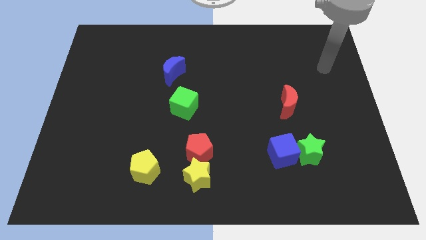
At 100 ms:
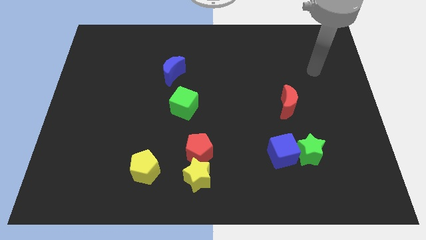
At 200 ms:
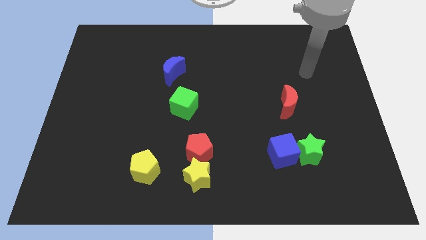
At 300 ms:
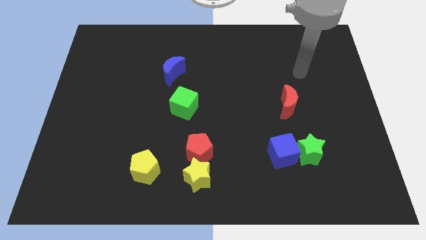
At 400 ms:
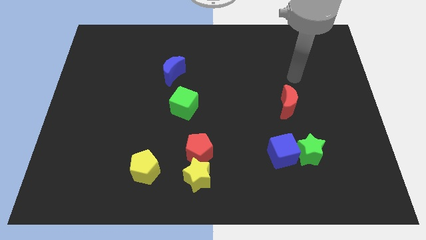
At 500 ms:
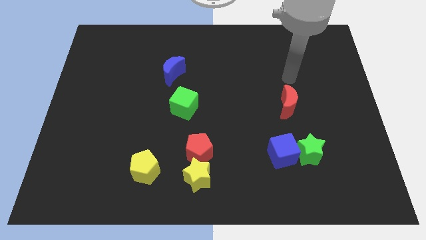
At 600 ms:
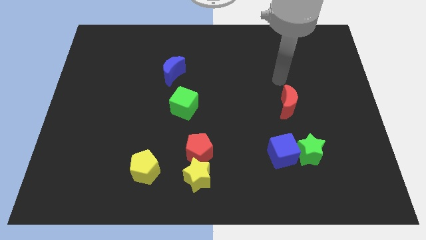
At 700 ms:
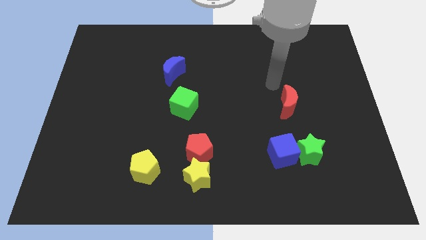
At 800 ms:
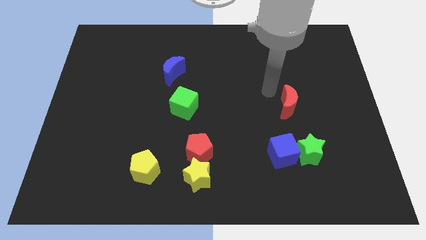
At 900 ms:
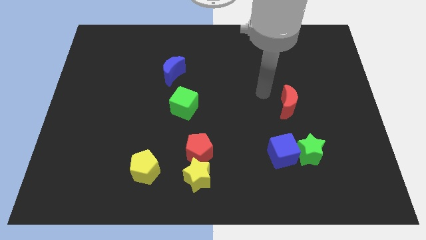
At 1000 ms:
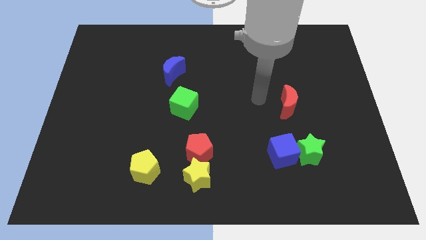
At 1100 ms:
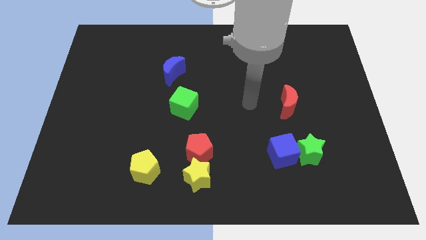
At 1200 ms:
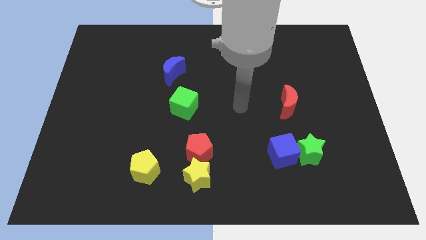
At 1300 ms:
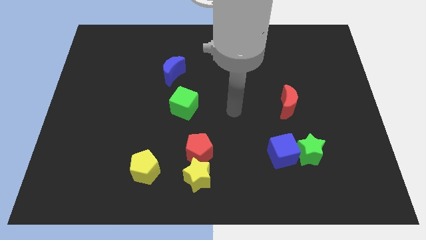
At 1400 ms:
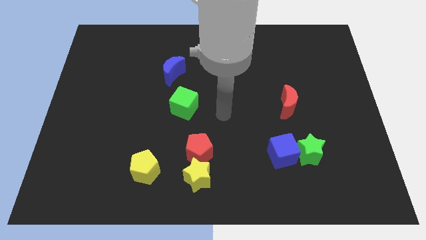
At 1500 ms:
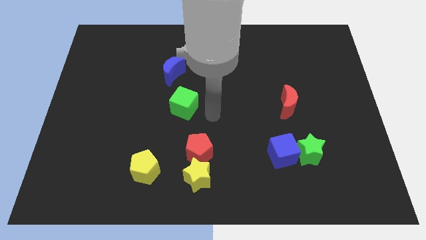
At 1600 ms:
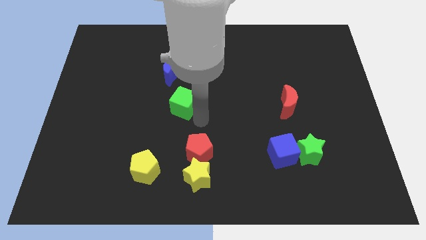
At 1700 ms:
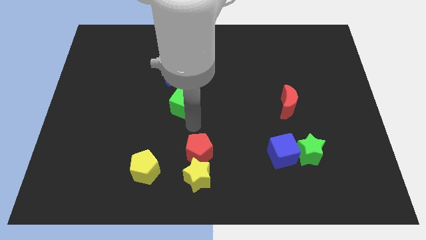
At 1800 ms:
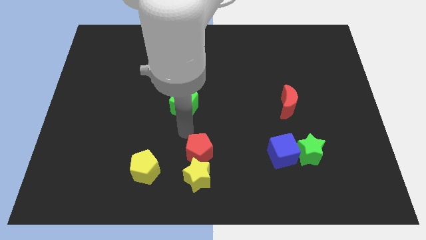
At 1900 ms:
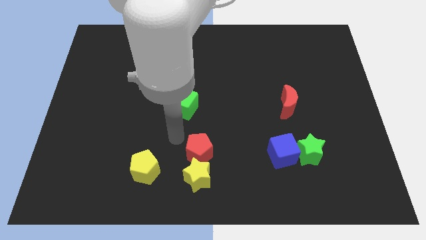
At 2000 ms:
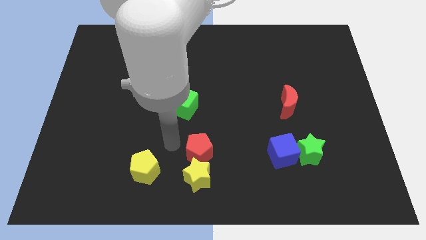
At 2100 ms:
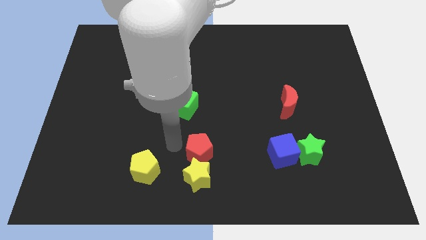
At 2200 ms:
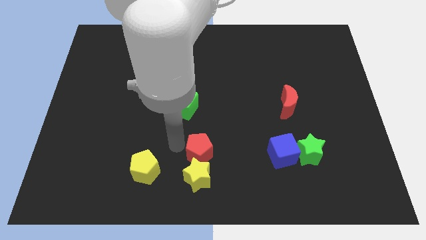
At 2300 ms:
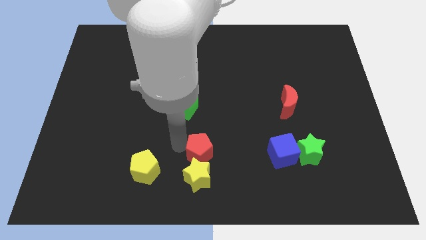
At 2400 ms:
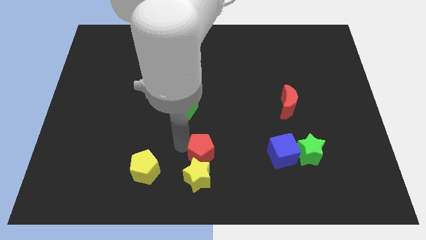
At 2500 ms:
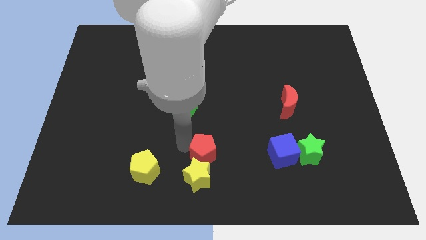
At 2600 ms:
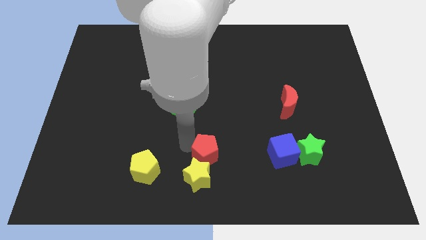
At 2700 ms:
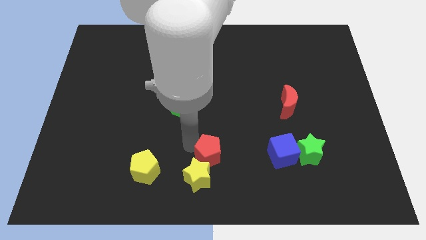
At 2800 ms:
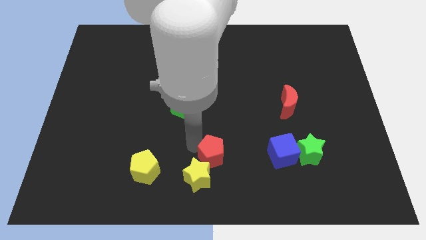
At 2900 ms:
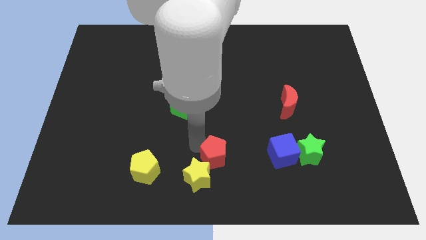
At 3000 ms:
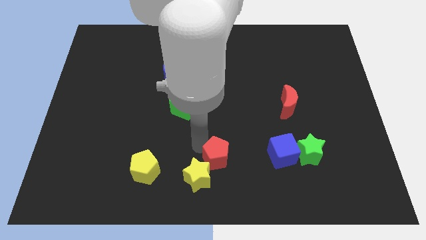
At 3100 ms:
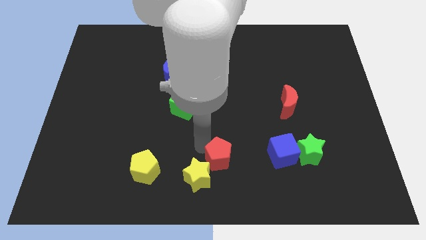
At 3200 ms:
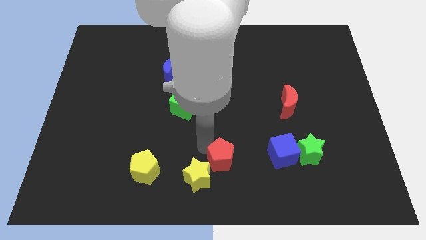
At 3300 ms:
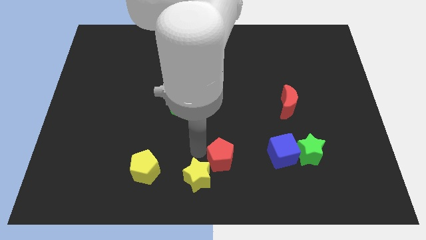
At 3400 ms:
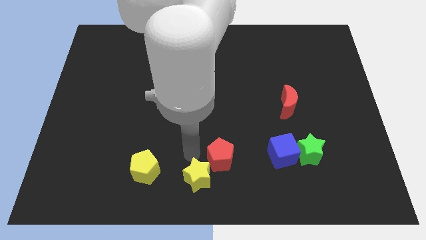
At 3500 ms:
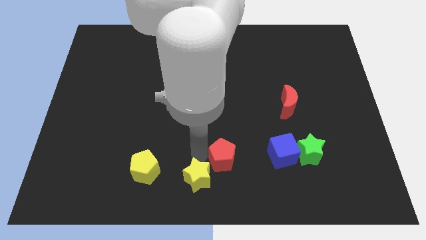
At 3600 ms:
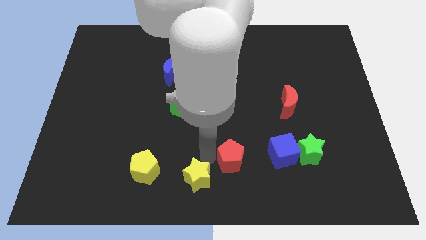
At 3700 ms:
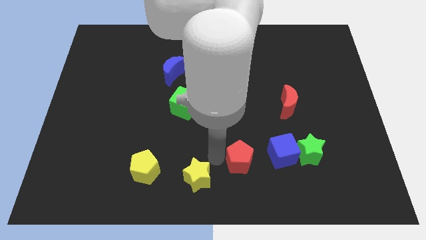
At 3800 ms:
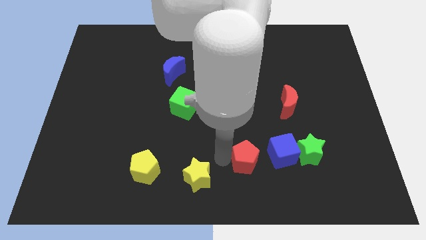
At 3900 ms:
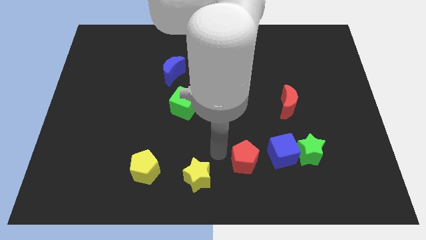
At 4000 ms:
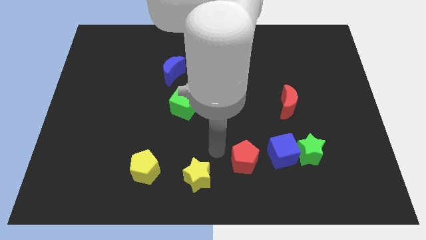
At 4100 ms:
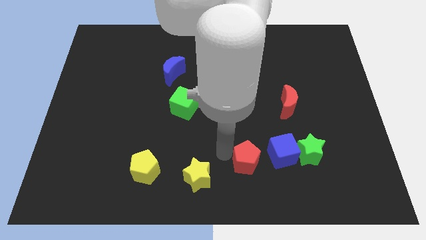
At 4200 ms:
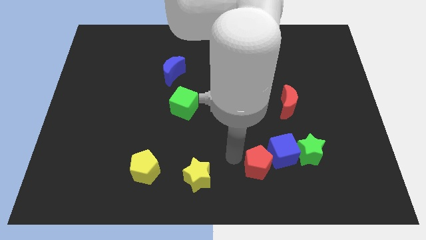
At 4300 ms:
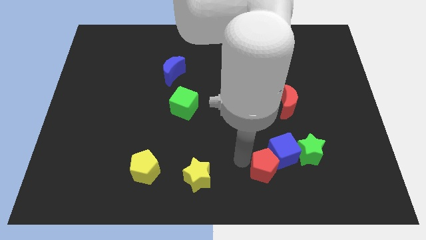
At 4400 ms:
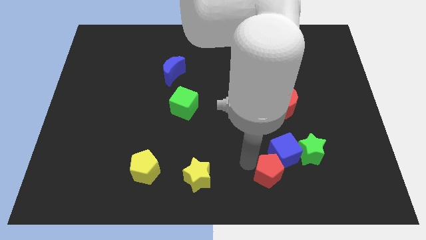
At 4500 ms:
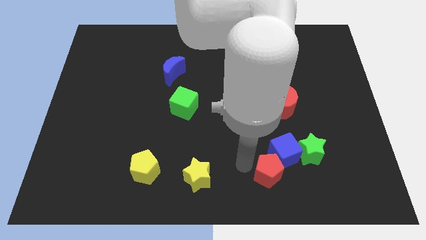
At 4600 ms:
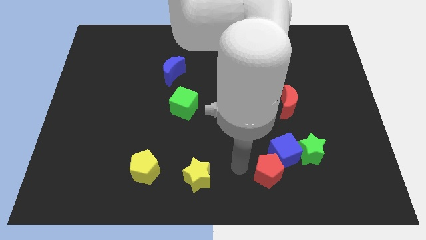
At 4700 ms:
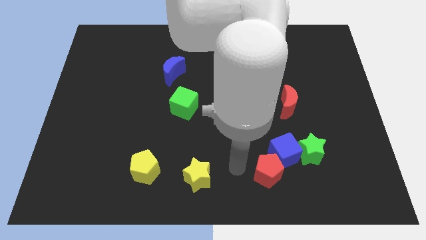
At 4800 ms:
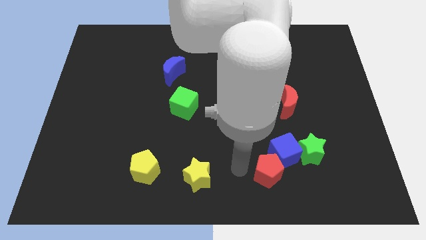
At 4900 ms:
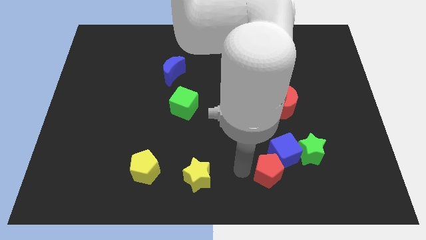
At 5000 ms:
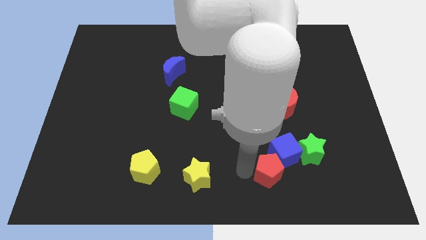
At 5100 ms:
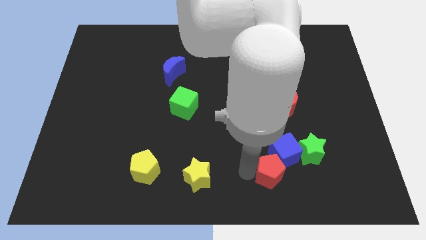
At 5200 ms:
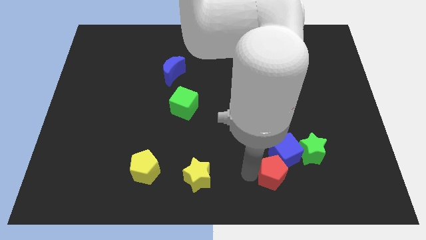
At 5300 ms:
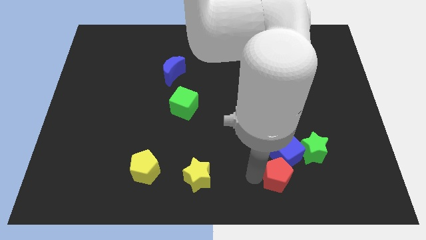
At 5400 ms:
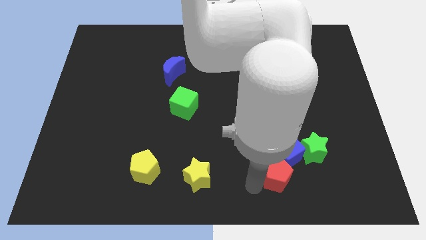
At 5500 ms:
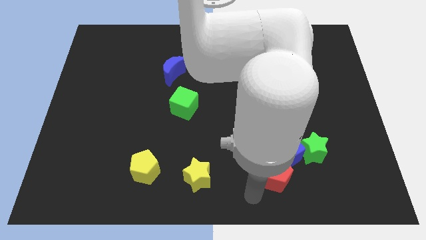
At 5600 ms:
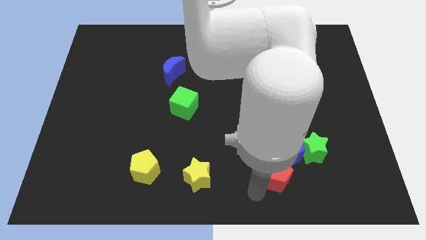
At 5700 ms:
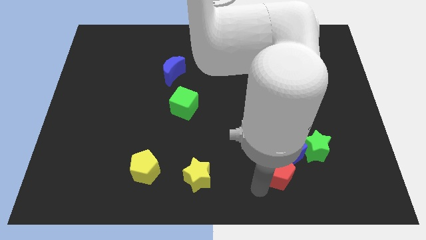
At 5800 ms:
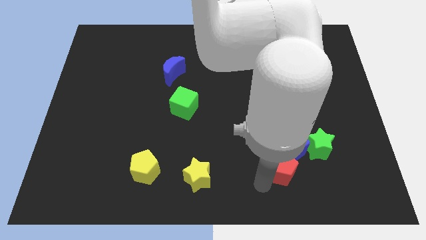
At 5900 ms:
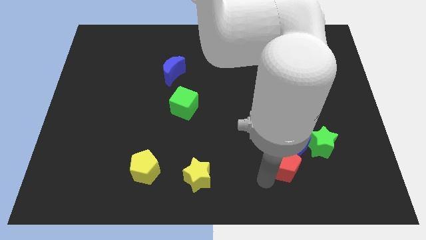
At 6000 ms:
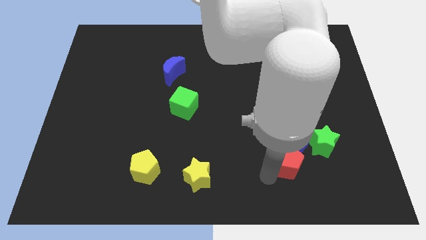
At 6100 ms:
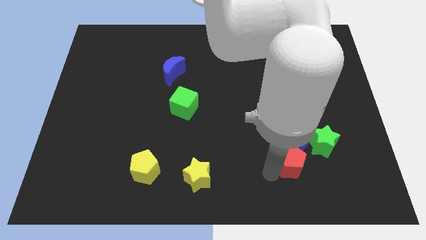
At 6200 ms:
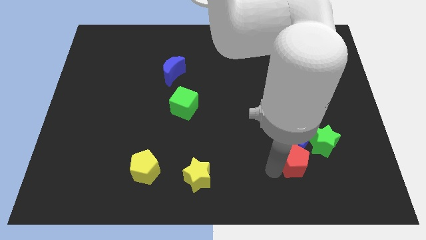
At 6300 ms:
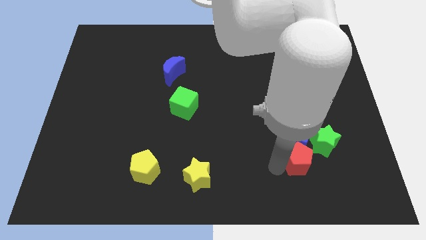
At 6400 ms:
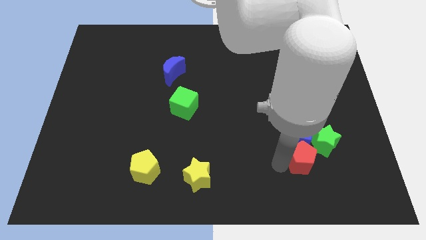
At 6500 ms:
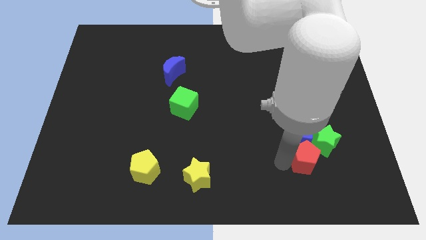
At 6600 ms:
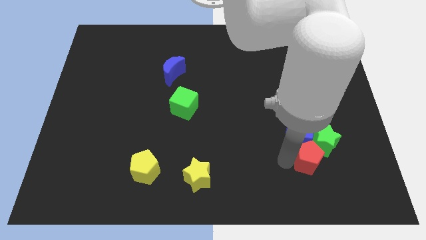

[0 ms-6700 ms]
slide the red pentagon next to the green star
